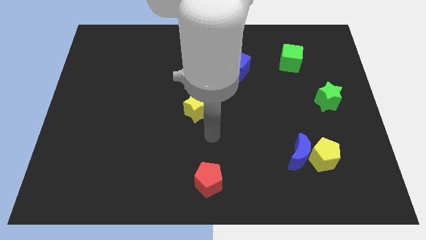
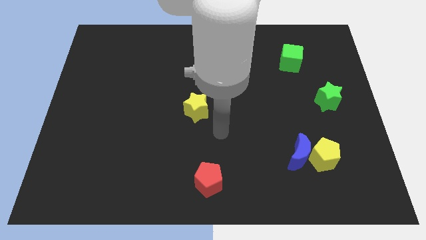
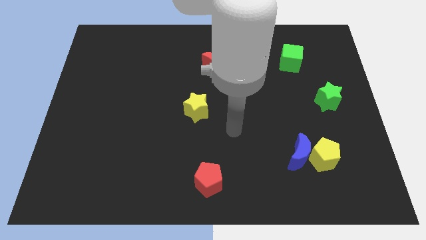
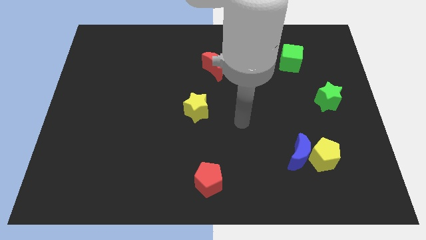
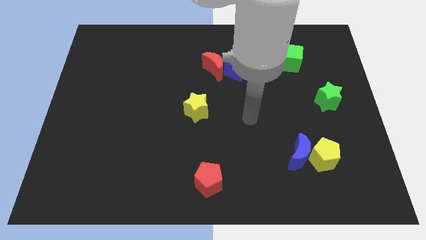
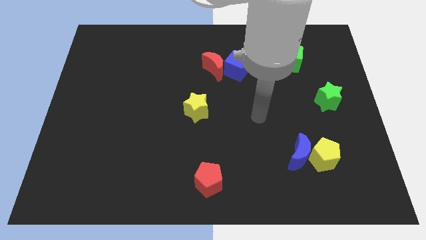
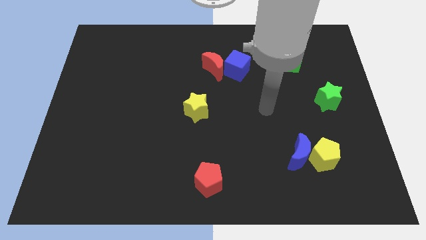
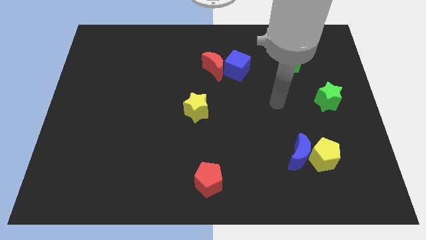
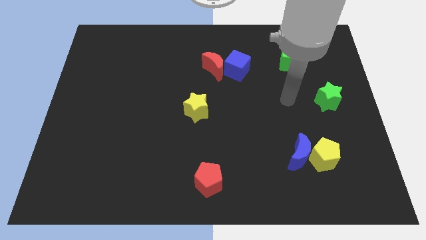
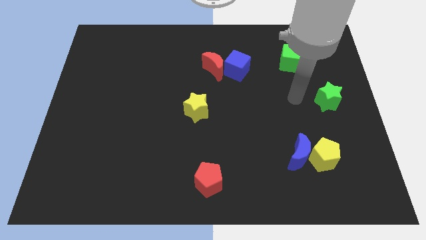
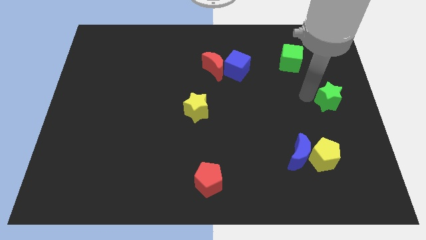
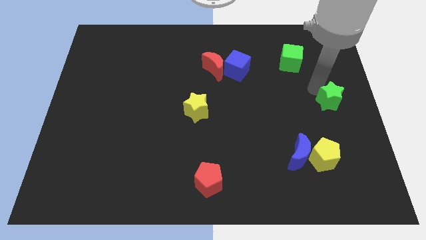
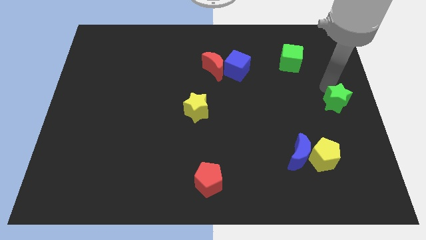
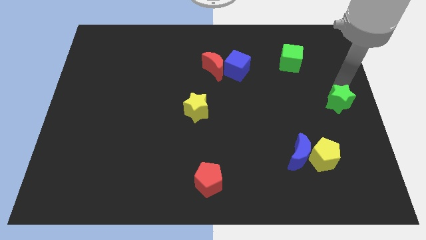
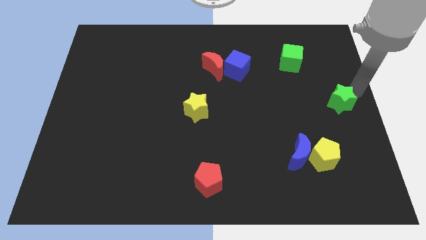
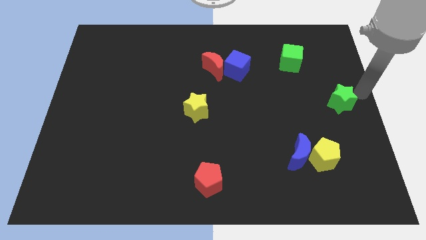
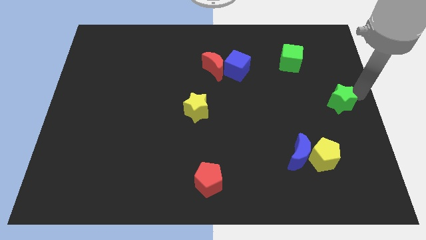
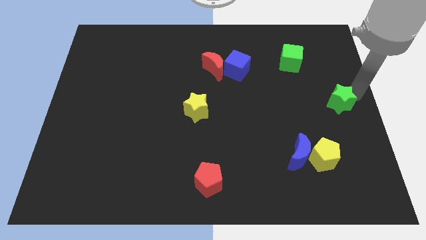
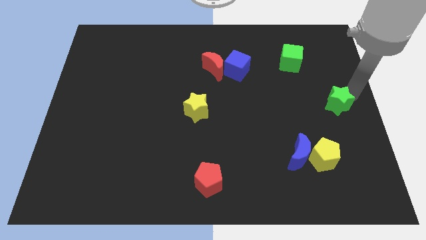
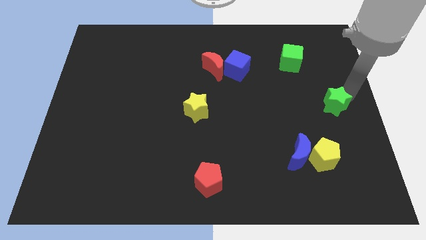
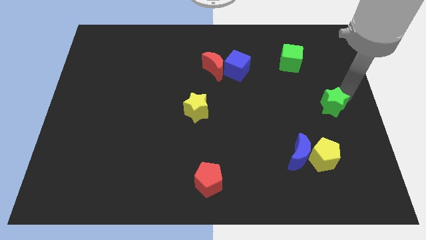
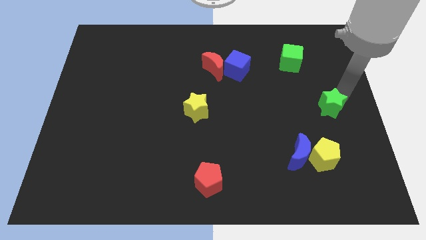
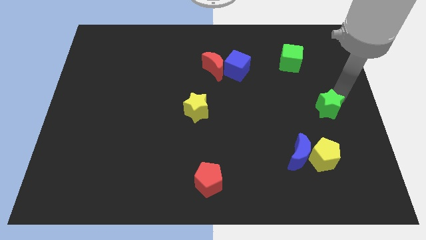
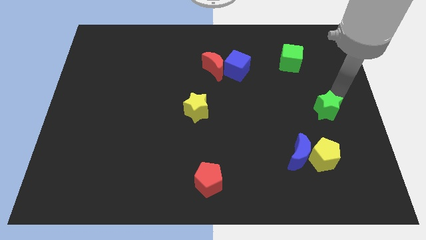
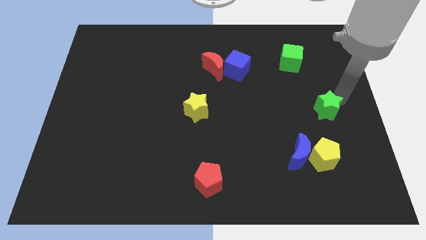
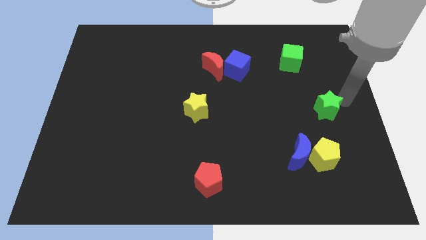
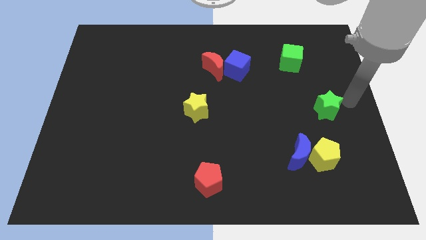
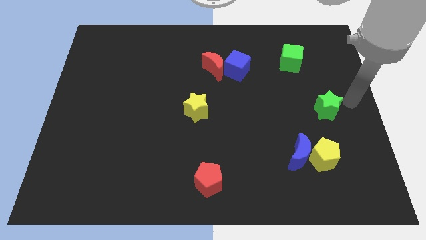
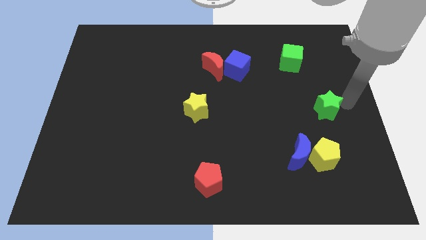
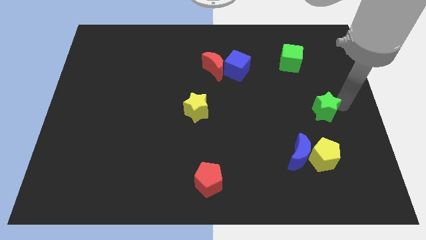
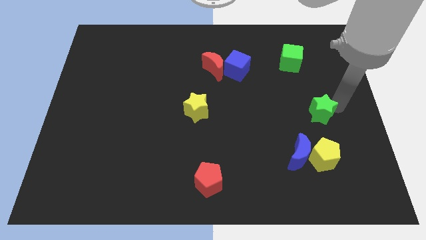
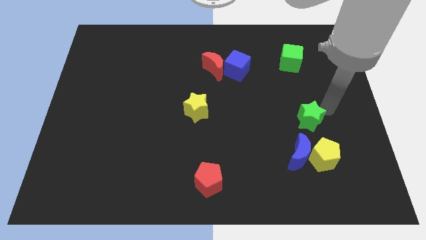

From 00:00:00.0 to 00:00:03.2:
slightly push the green star down and to the left

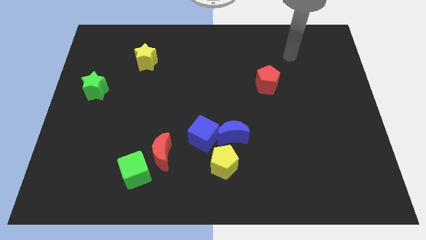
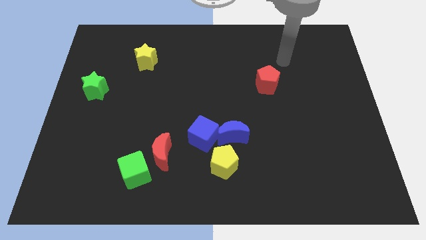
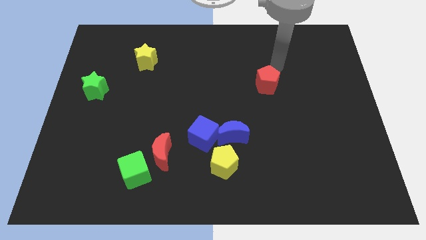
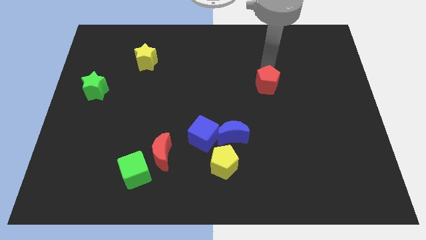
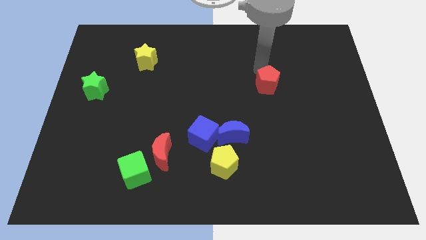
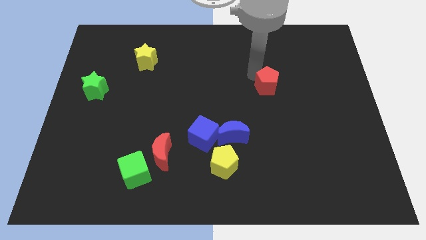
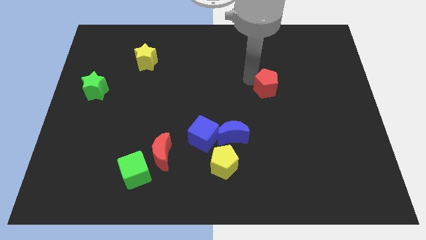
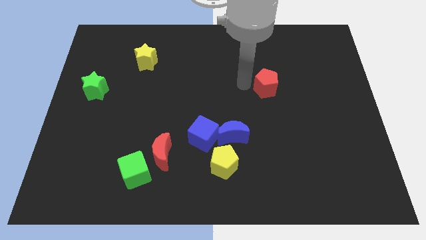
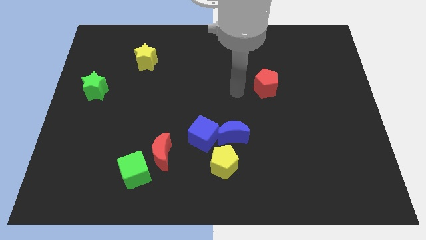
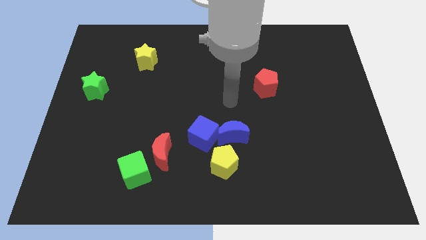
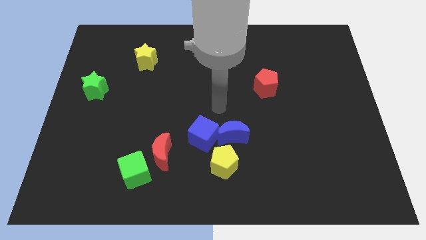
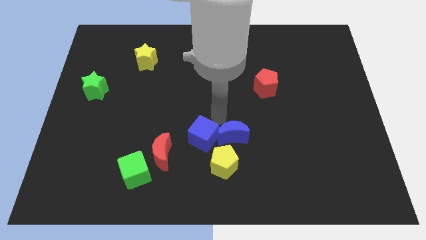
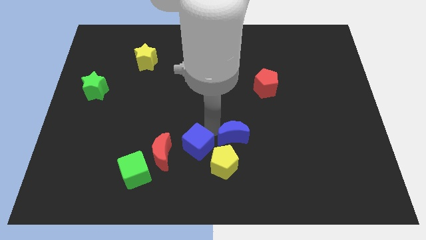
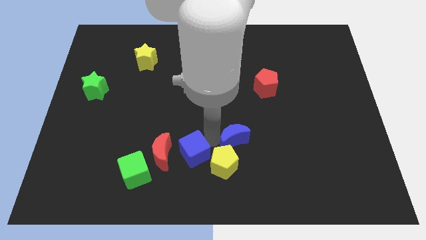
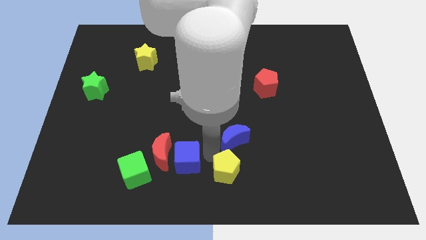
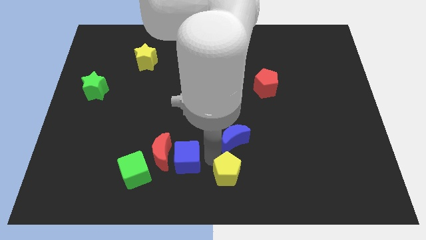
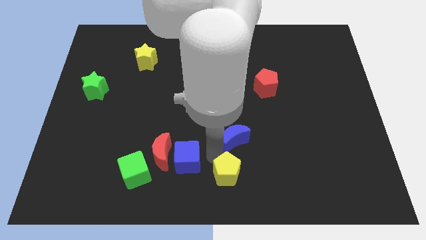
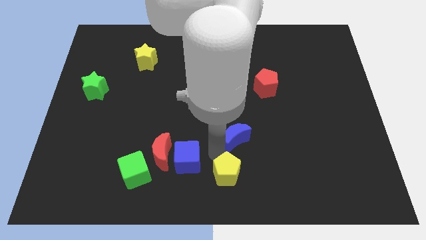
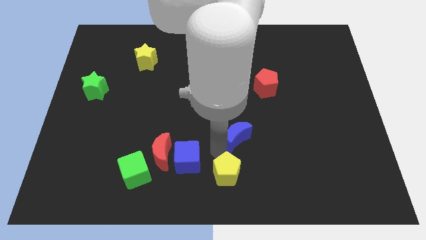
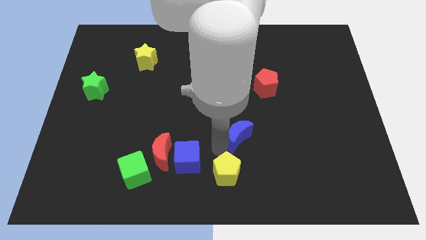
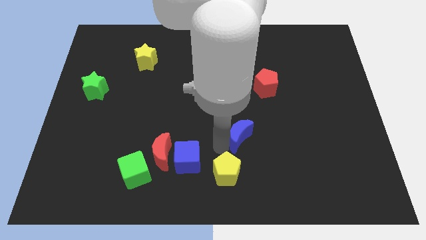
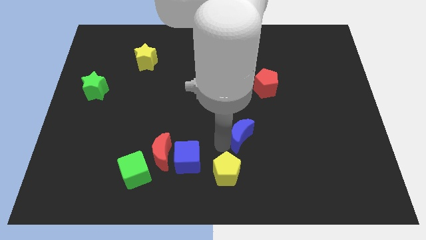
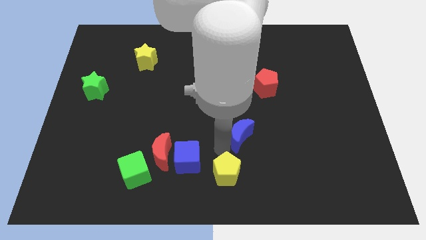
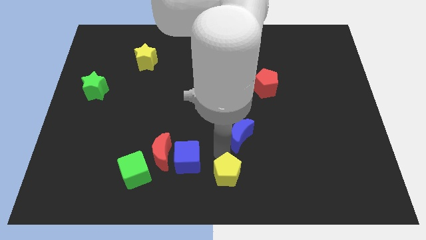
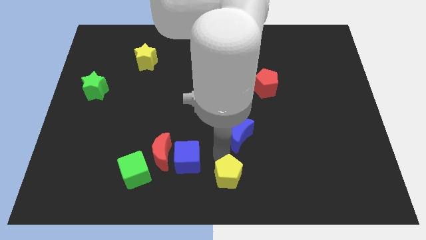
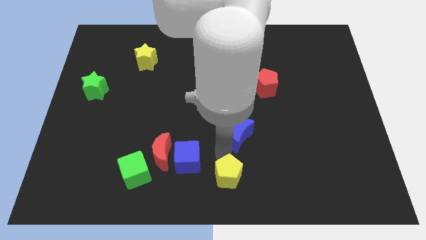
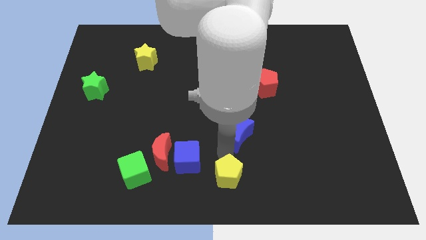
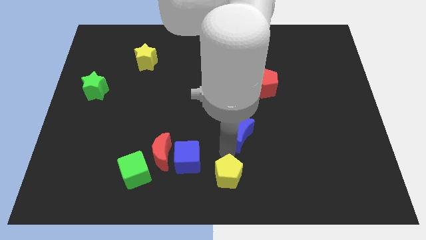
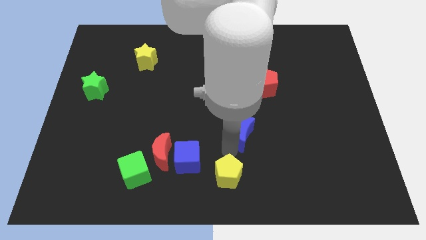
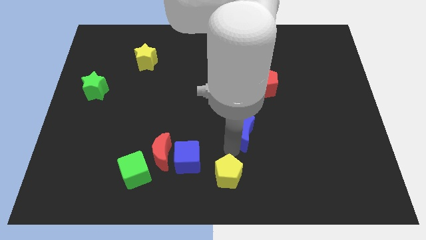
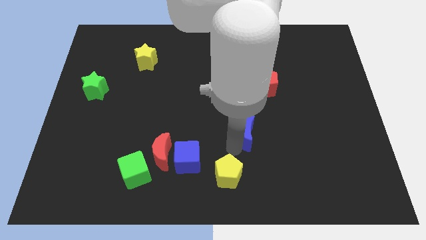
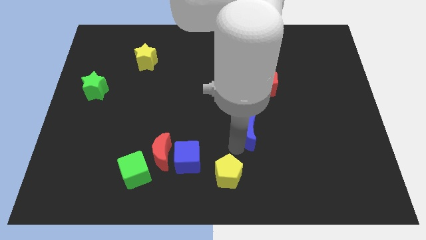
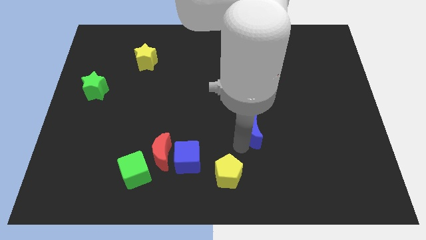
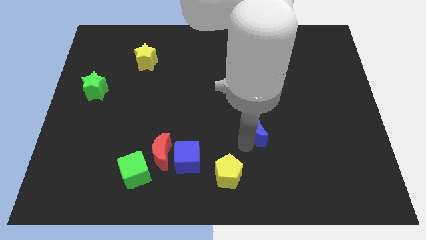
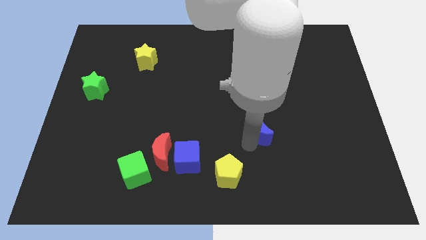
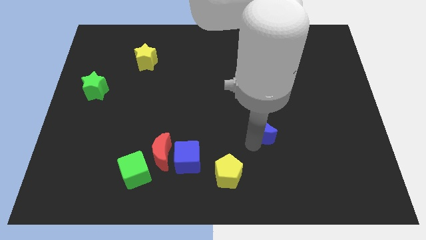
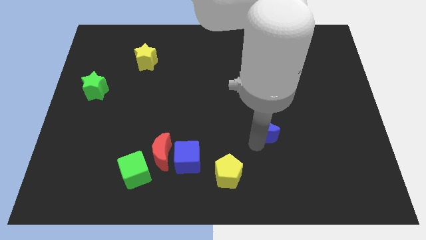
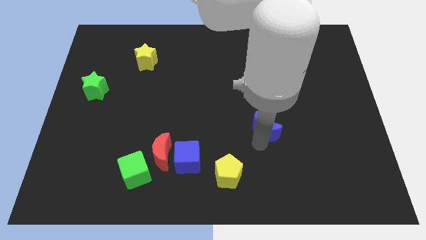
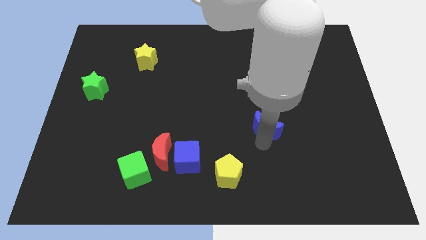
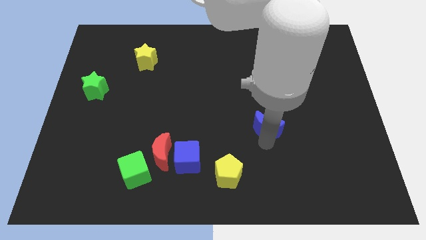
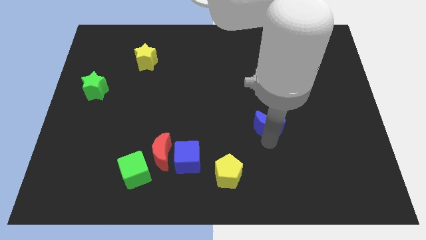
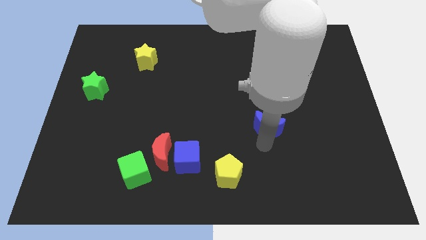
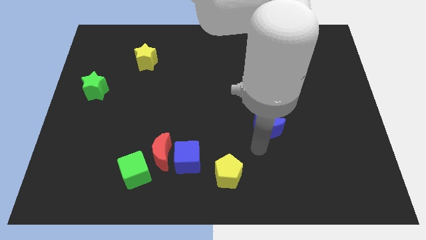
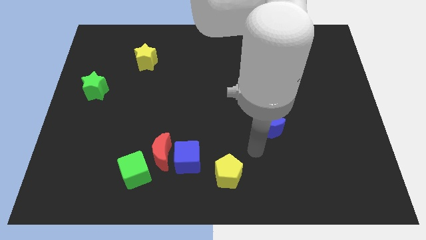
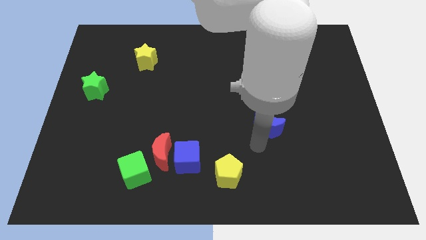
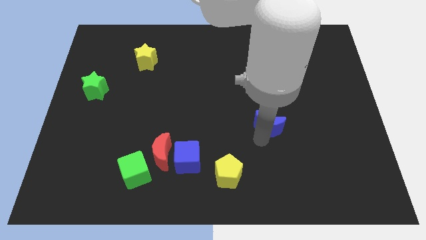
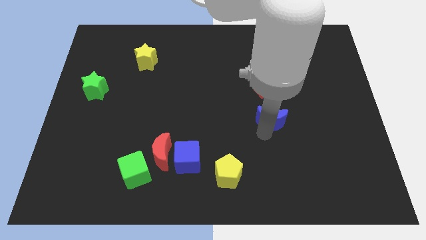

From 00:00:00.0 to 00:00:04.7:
slide the blue moon diagonally upwards and to the right slightly

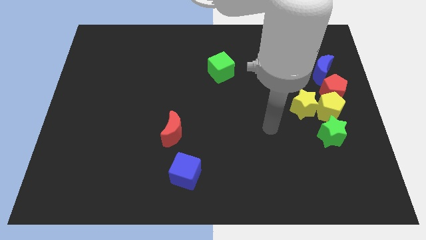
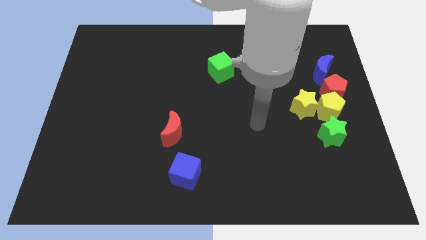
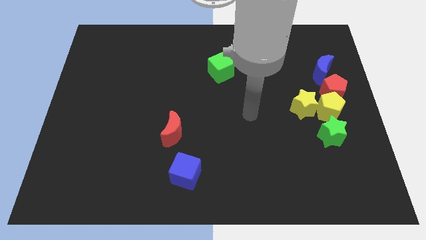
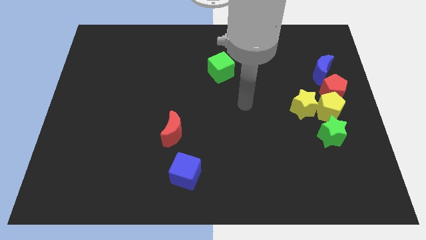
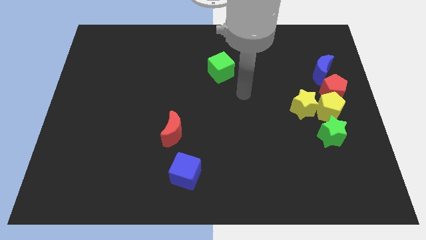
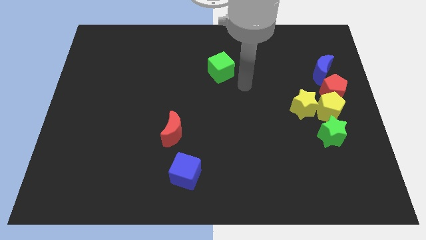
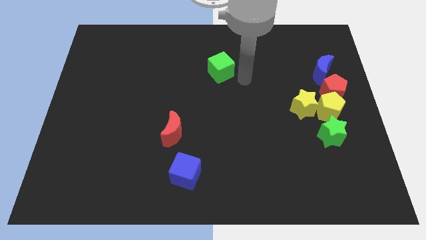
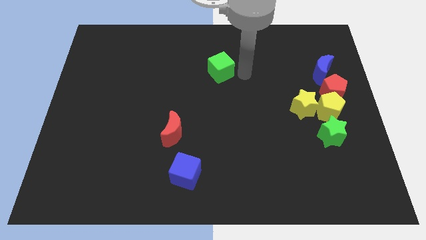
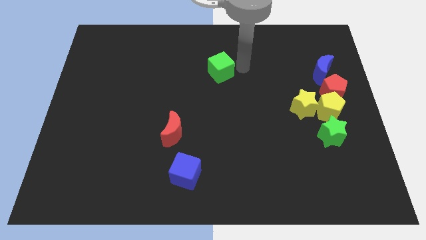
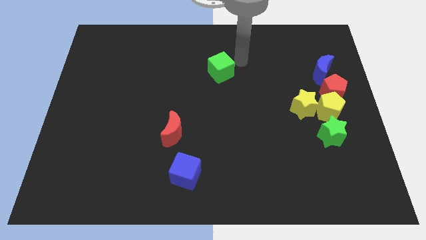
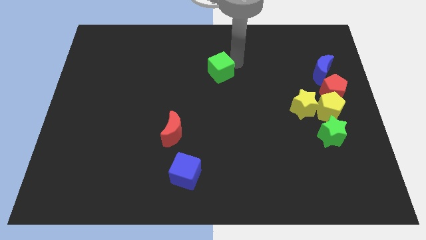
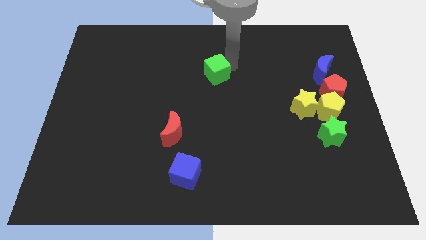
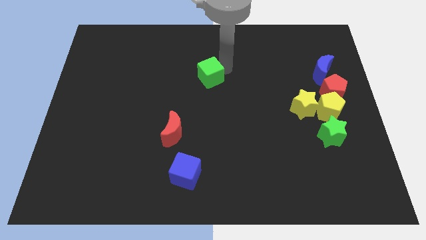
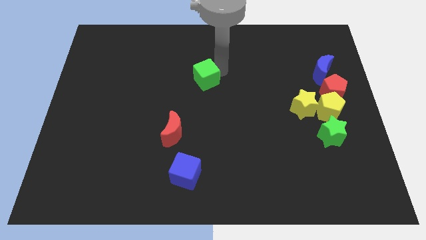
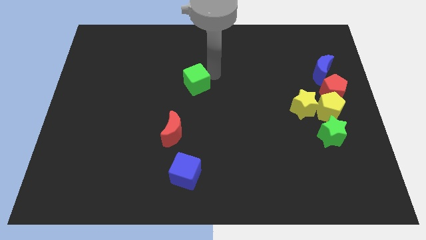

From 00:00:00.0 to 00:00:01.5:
move the green cube diagonally down and left a little bit
